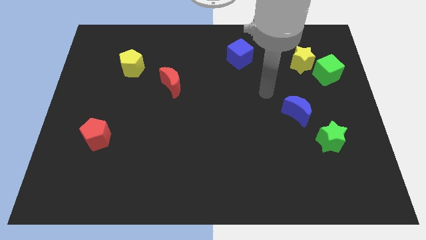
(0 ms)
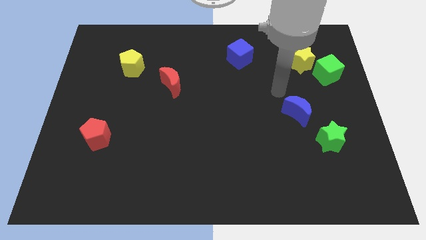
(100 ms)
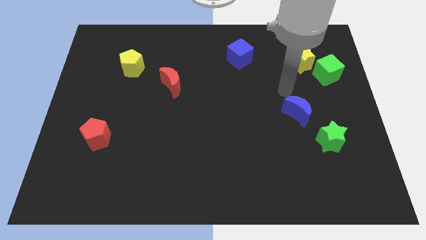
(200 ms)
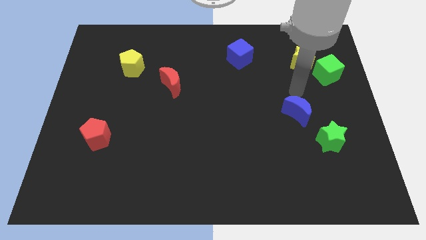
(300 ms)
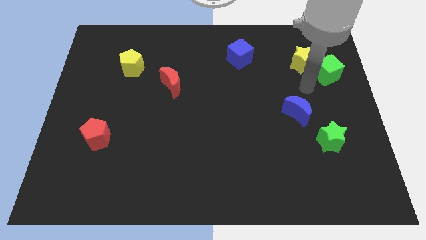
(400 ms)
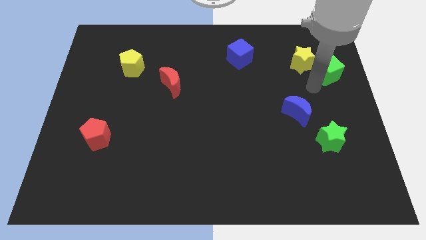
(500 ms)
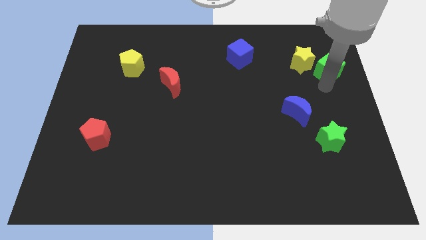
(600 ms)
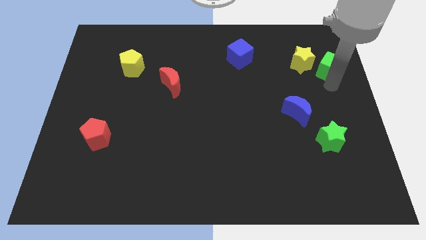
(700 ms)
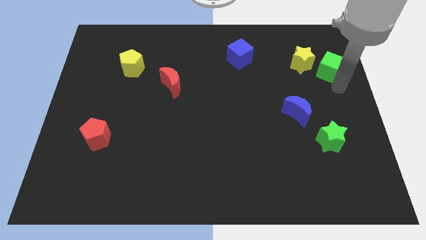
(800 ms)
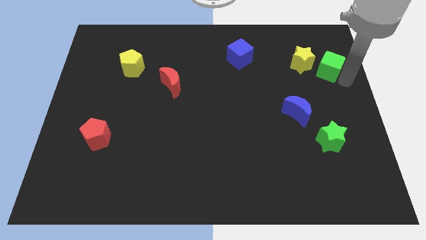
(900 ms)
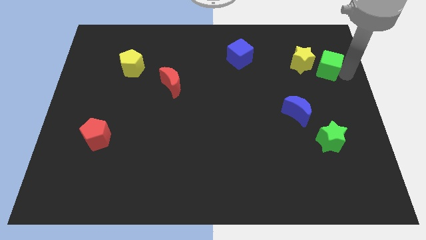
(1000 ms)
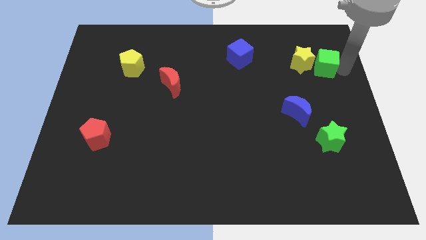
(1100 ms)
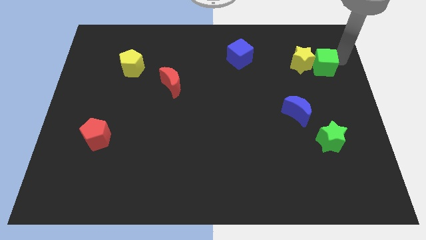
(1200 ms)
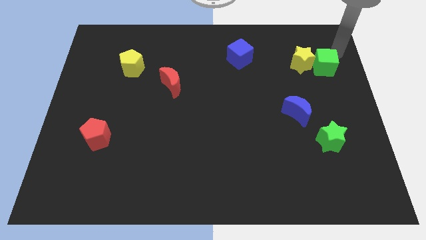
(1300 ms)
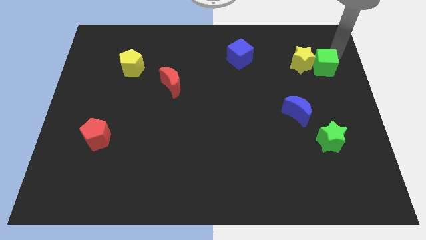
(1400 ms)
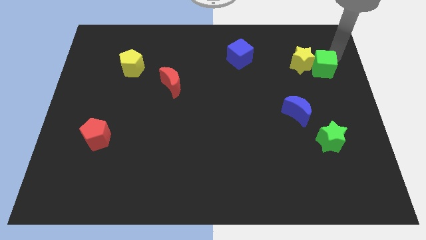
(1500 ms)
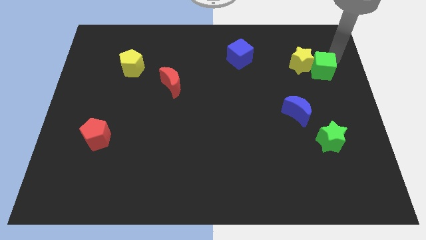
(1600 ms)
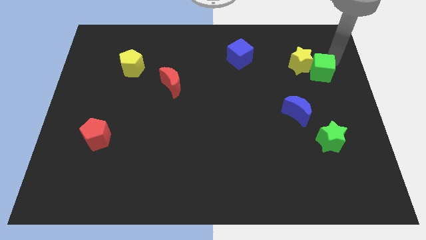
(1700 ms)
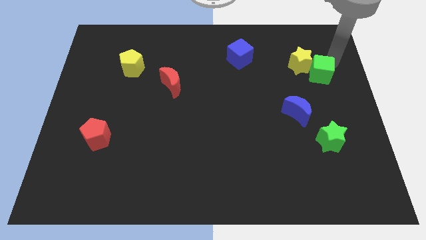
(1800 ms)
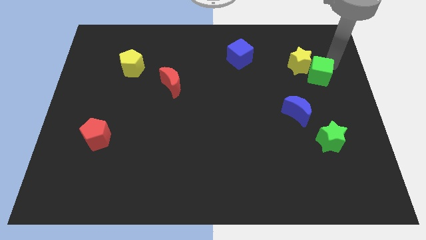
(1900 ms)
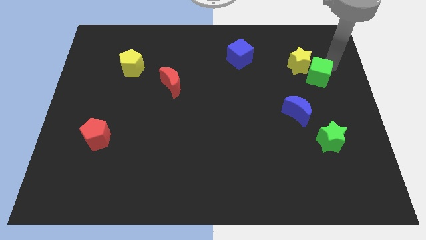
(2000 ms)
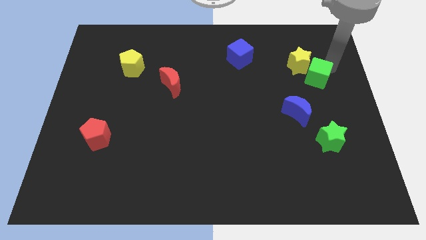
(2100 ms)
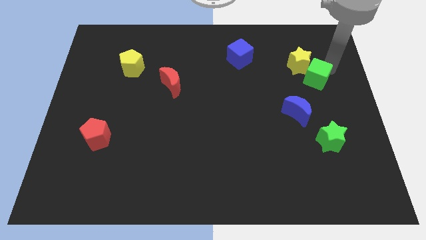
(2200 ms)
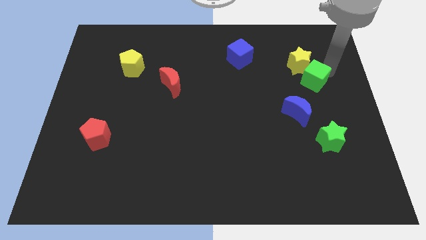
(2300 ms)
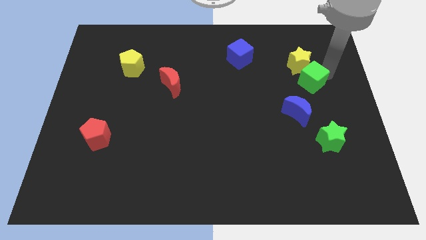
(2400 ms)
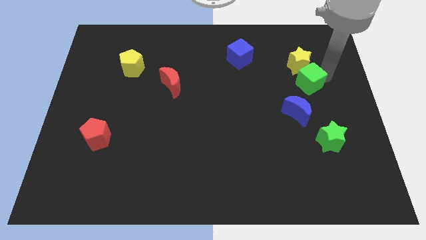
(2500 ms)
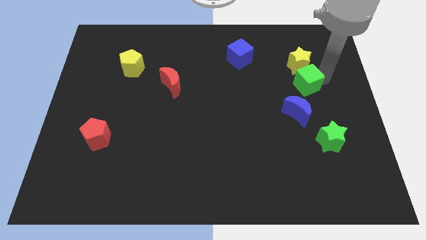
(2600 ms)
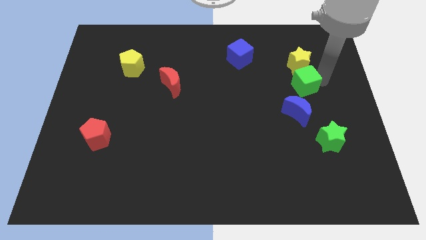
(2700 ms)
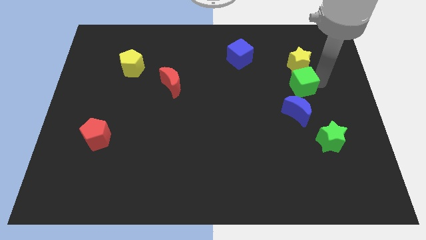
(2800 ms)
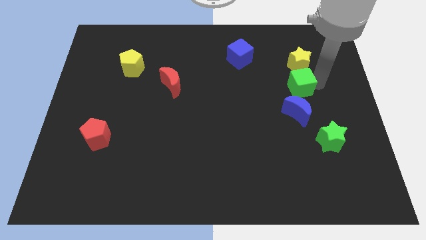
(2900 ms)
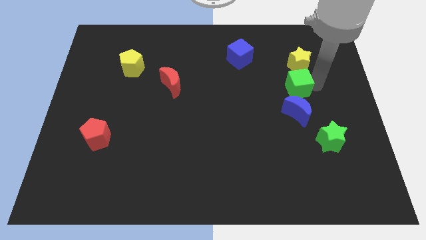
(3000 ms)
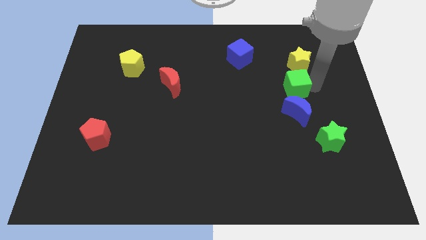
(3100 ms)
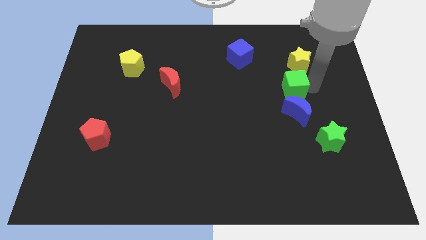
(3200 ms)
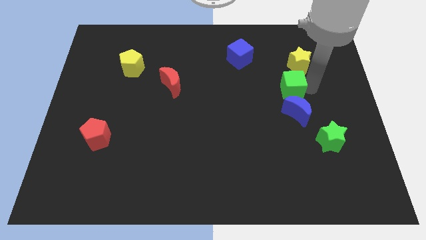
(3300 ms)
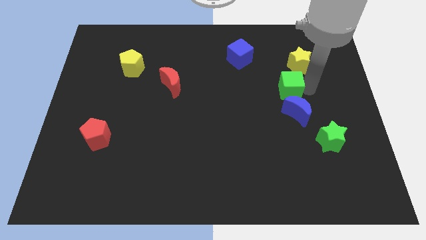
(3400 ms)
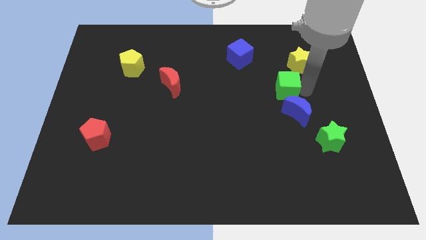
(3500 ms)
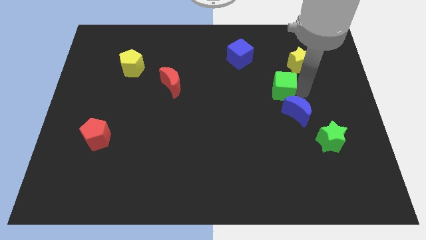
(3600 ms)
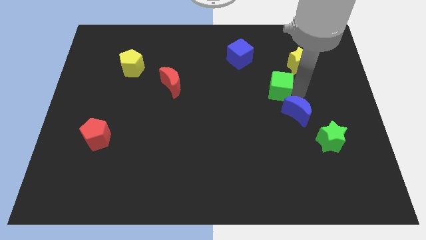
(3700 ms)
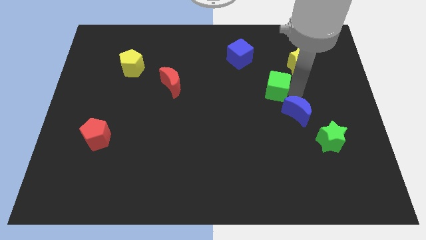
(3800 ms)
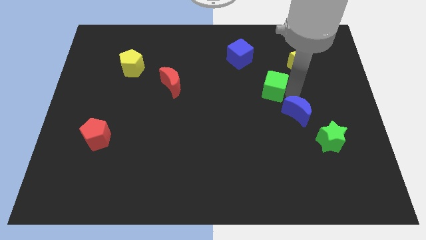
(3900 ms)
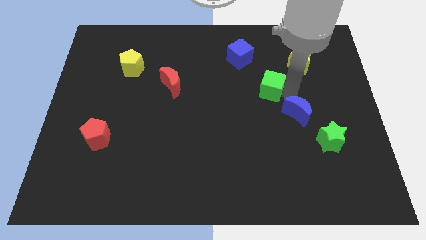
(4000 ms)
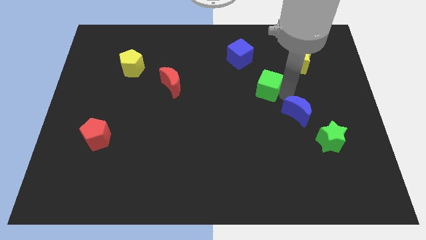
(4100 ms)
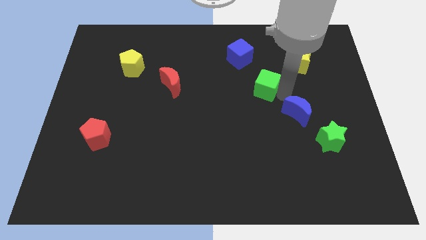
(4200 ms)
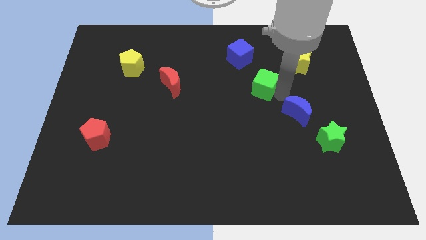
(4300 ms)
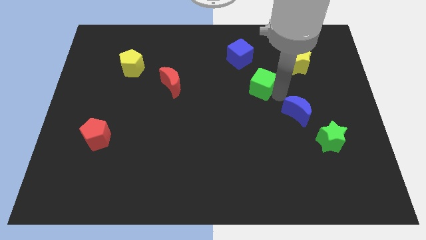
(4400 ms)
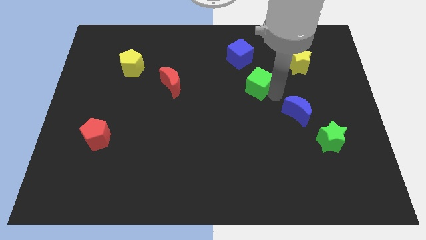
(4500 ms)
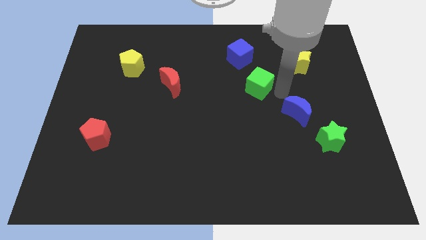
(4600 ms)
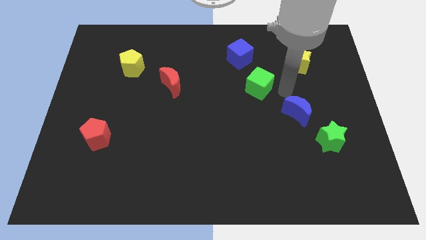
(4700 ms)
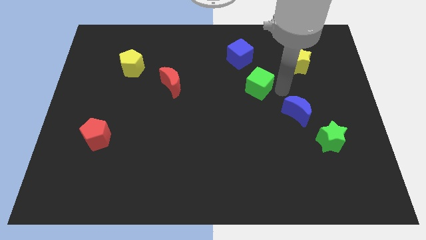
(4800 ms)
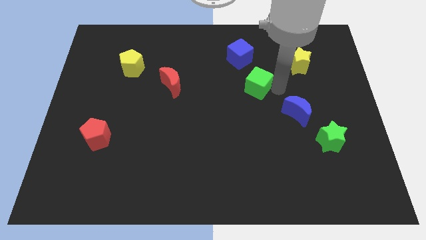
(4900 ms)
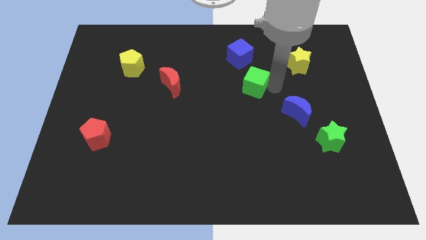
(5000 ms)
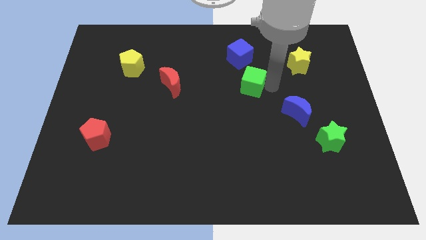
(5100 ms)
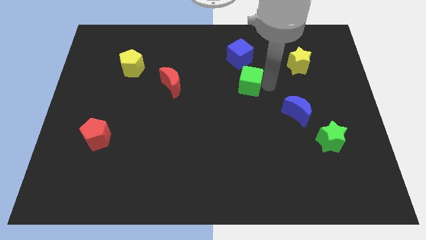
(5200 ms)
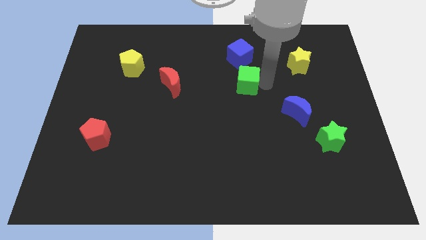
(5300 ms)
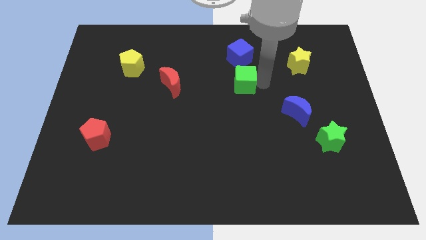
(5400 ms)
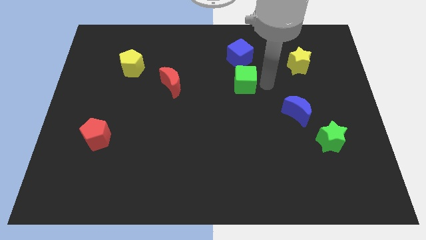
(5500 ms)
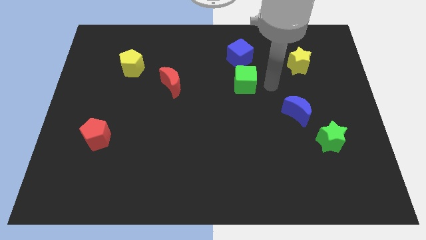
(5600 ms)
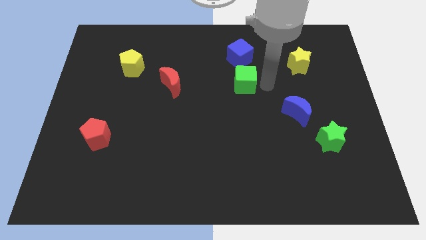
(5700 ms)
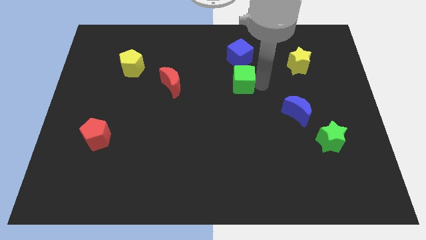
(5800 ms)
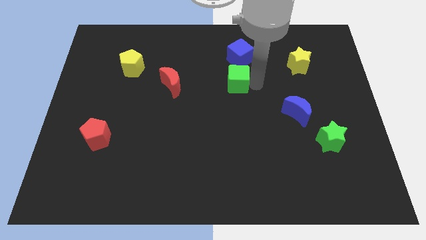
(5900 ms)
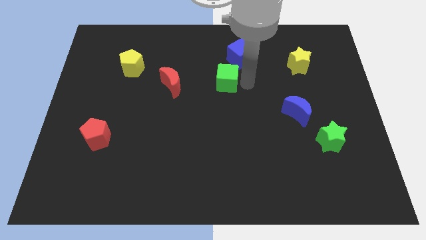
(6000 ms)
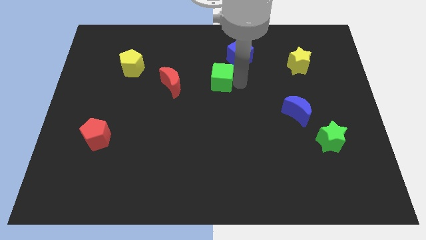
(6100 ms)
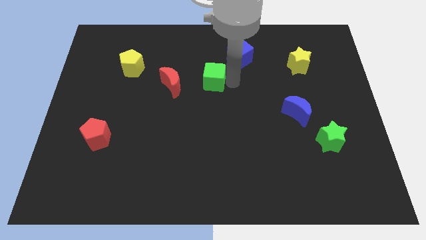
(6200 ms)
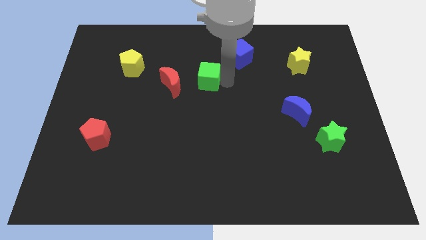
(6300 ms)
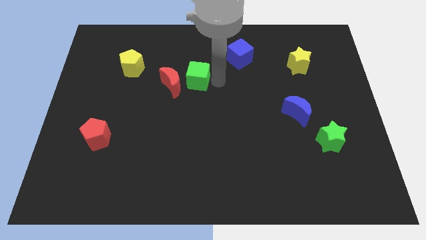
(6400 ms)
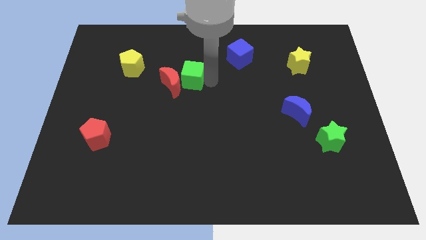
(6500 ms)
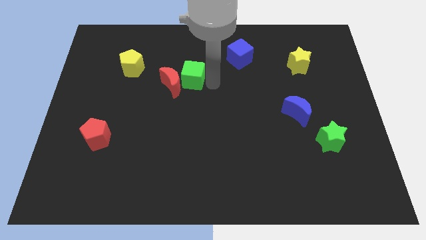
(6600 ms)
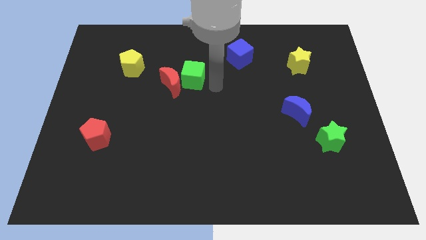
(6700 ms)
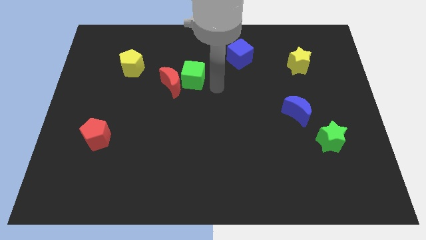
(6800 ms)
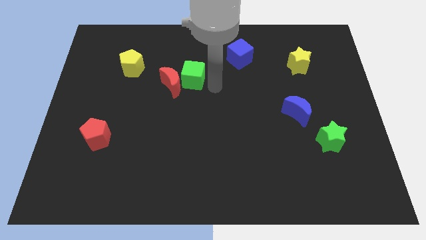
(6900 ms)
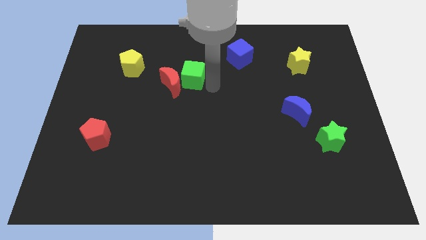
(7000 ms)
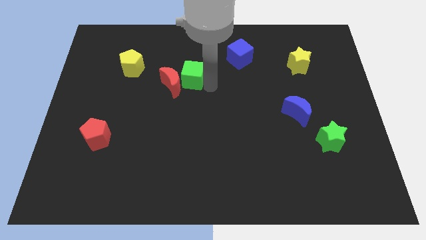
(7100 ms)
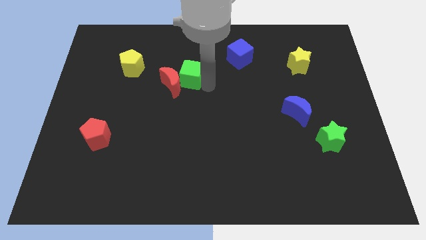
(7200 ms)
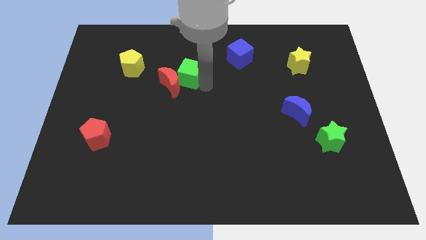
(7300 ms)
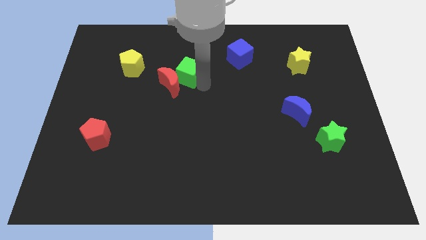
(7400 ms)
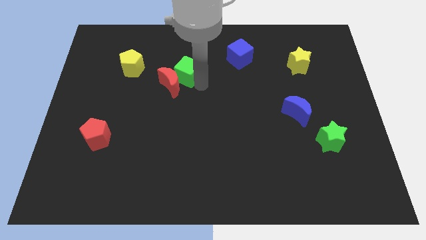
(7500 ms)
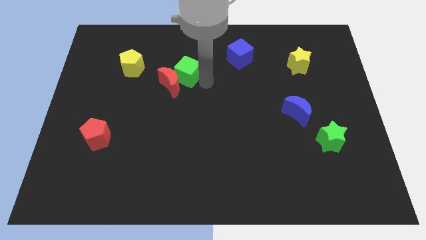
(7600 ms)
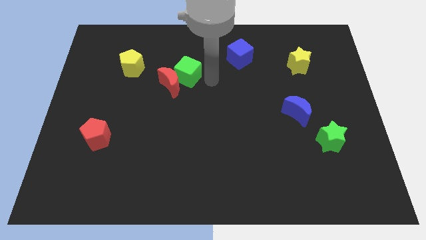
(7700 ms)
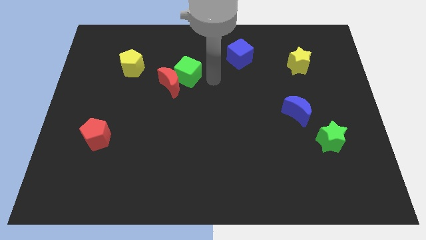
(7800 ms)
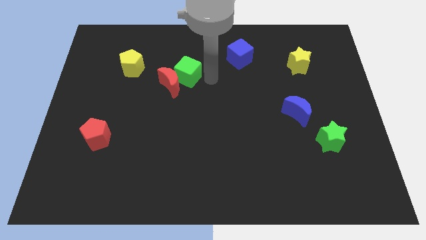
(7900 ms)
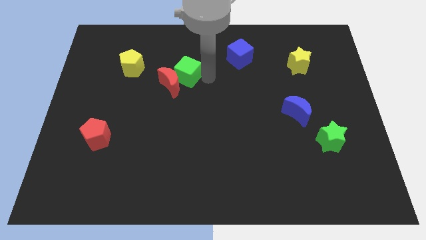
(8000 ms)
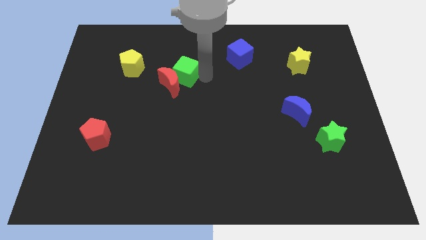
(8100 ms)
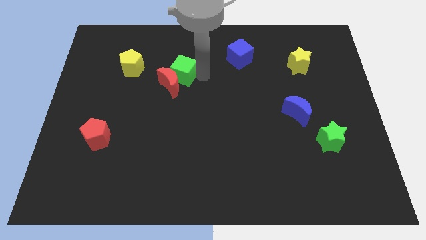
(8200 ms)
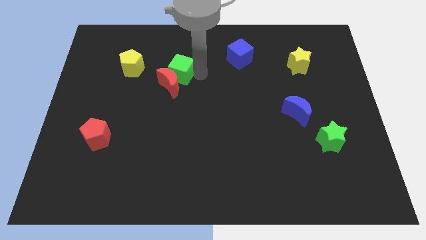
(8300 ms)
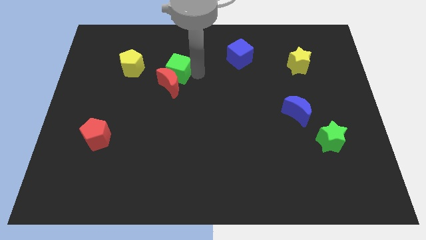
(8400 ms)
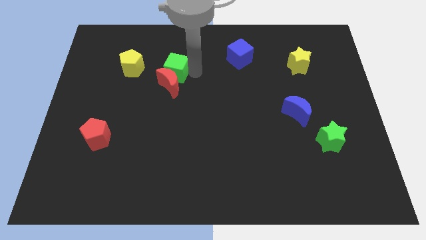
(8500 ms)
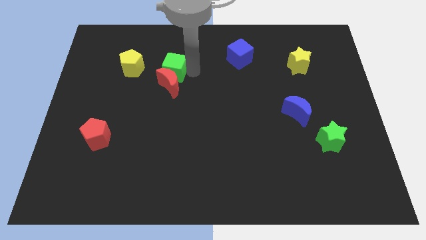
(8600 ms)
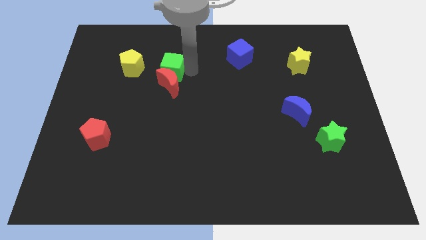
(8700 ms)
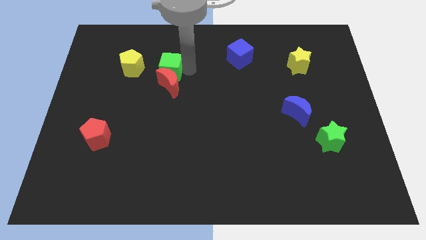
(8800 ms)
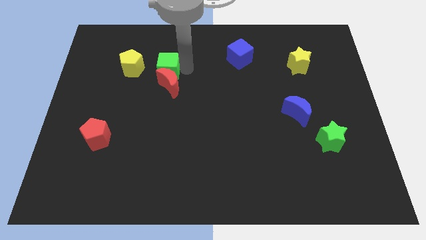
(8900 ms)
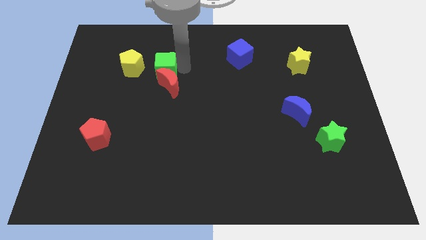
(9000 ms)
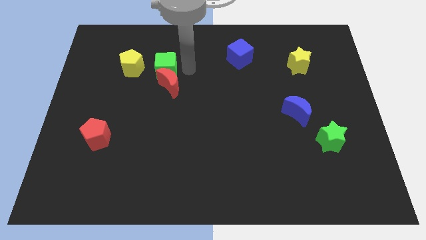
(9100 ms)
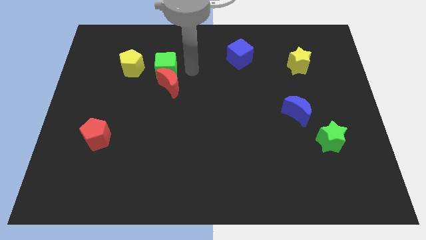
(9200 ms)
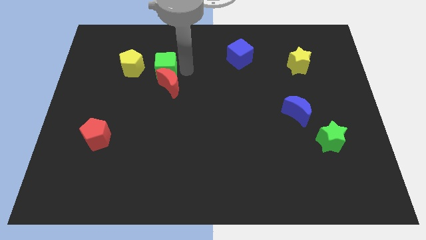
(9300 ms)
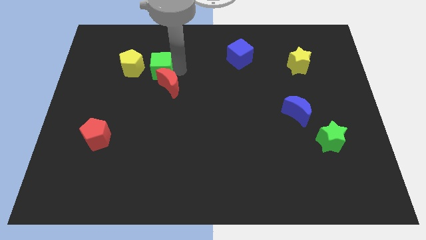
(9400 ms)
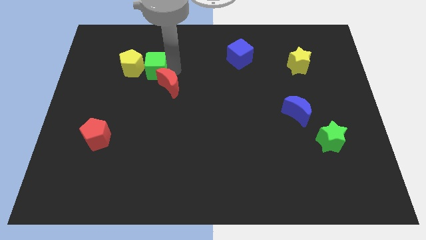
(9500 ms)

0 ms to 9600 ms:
put the green cube close to the yellow pentagon
